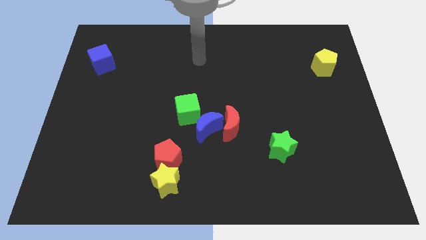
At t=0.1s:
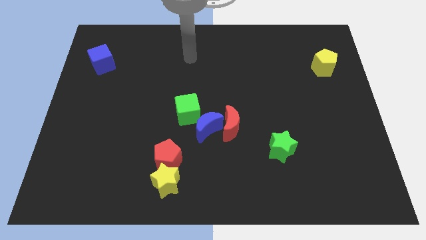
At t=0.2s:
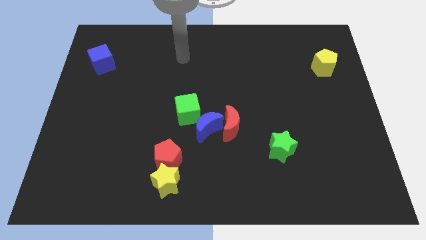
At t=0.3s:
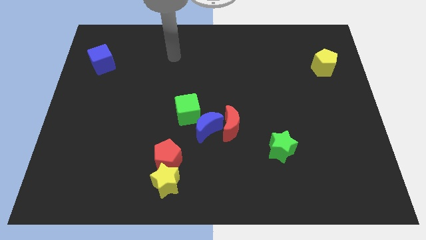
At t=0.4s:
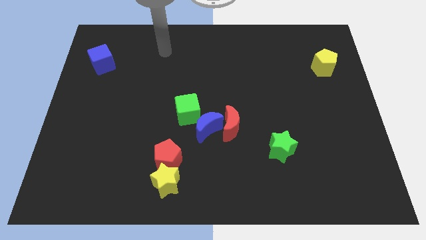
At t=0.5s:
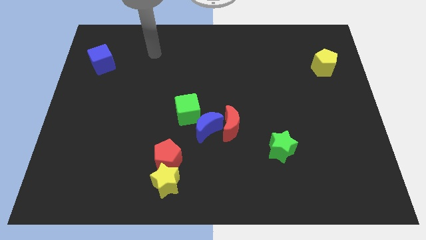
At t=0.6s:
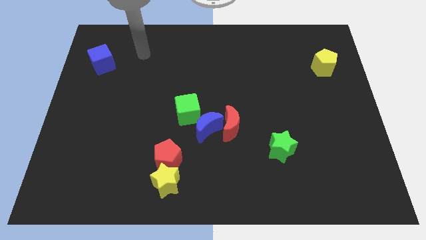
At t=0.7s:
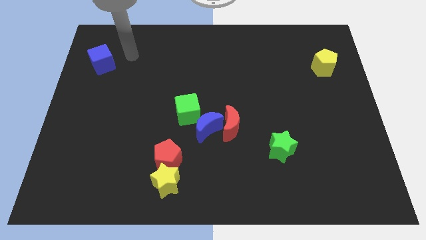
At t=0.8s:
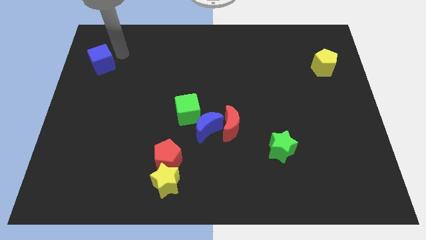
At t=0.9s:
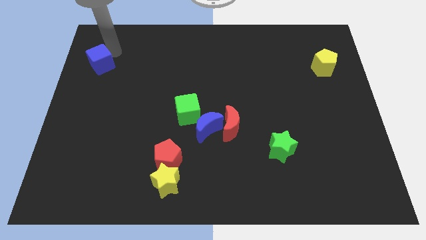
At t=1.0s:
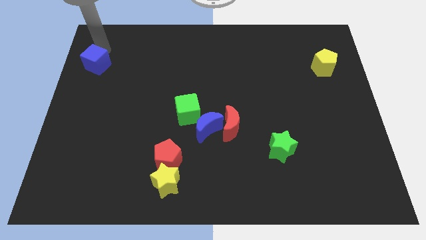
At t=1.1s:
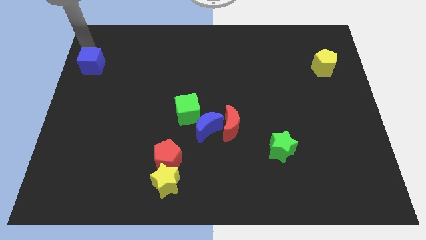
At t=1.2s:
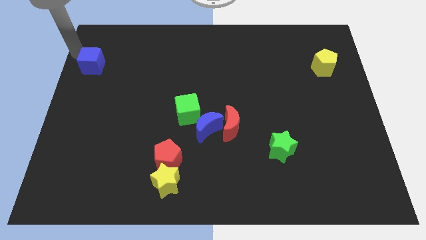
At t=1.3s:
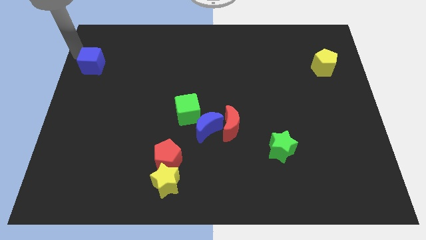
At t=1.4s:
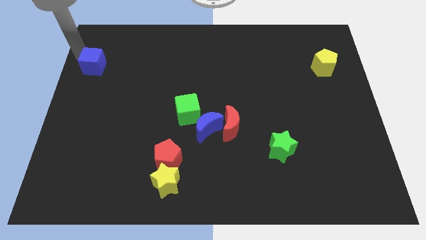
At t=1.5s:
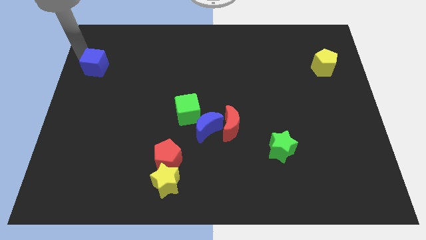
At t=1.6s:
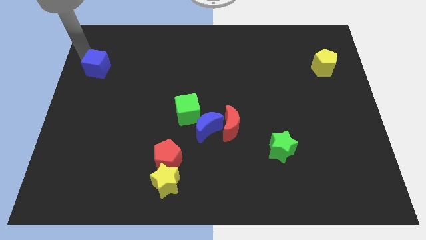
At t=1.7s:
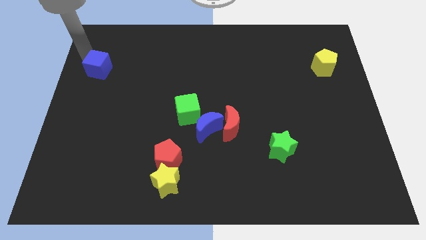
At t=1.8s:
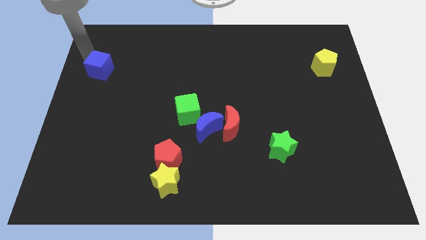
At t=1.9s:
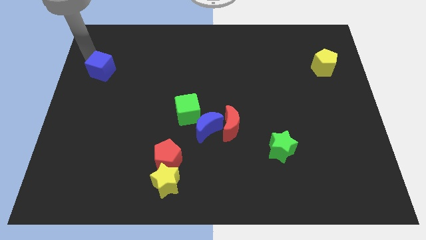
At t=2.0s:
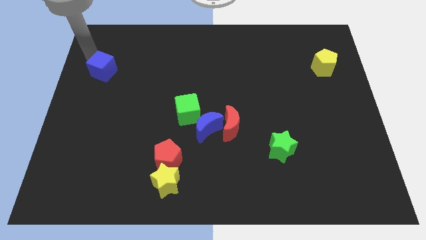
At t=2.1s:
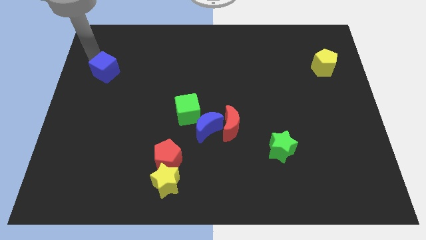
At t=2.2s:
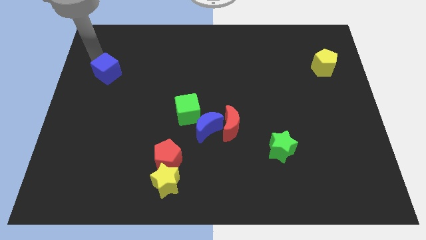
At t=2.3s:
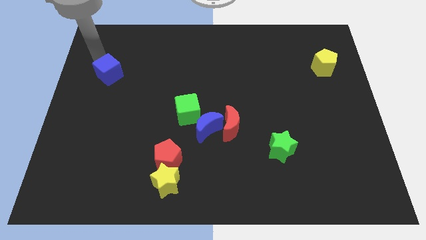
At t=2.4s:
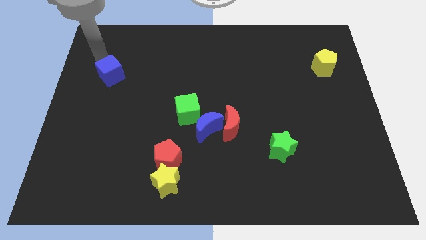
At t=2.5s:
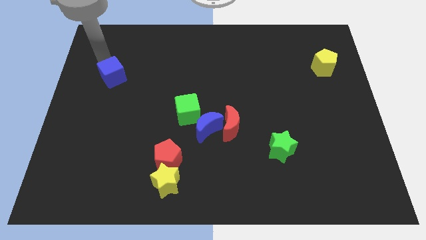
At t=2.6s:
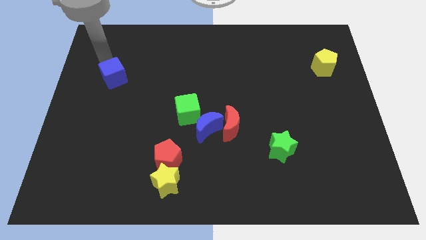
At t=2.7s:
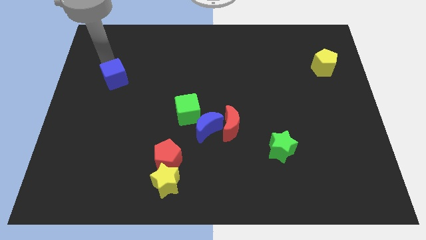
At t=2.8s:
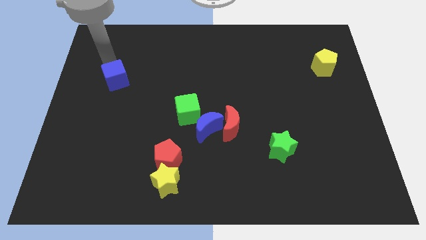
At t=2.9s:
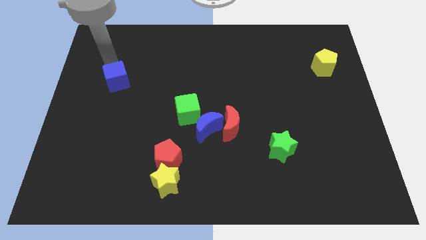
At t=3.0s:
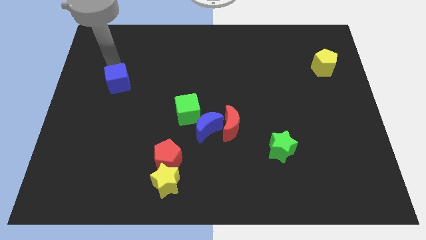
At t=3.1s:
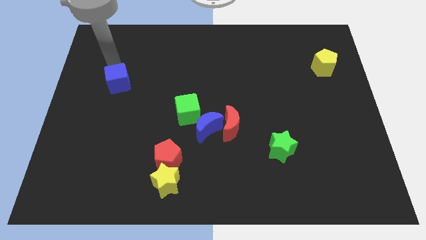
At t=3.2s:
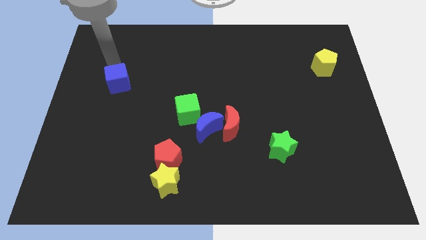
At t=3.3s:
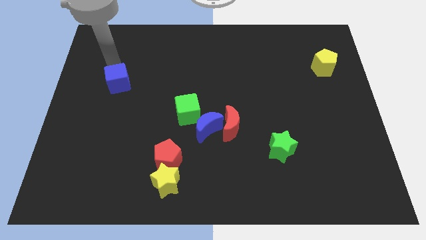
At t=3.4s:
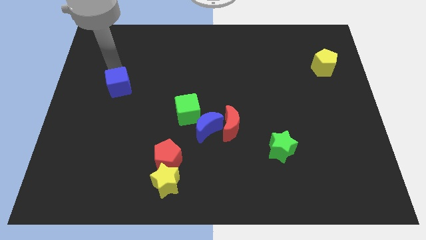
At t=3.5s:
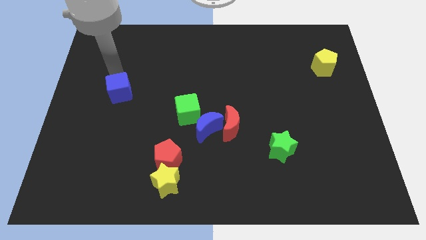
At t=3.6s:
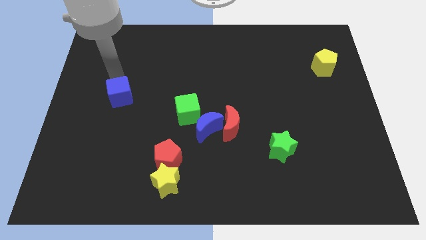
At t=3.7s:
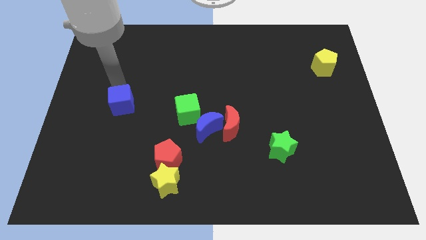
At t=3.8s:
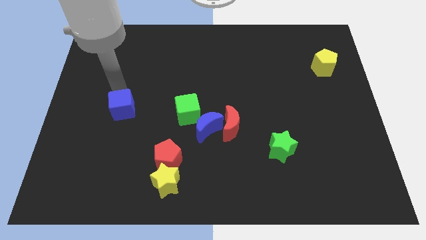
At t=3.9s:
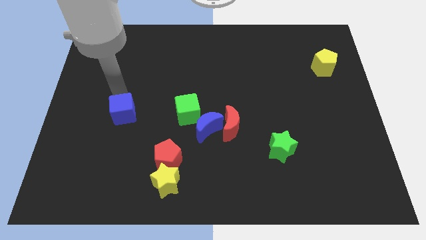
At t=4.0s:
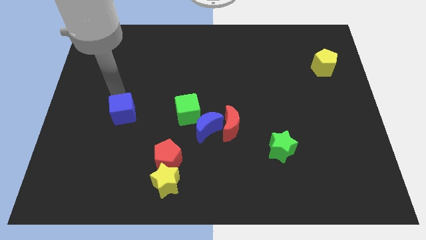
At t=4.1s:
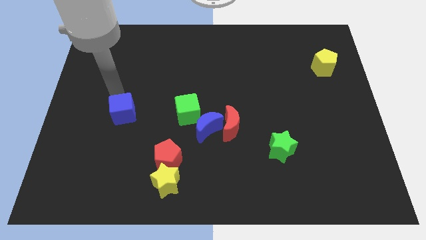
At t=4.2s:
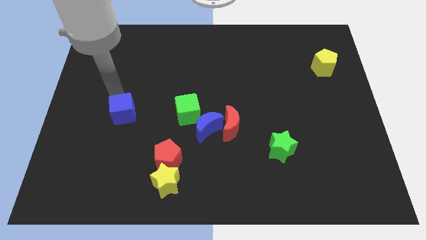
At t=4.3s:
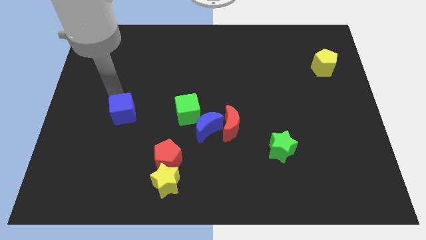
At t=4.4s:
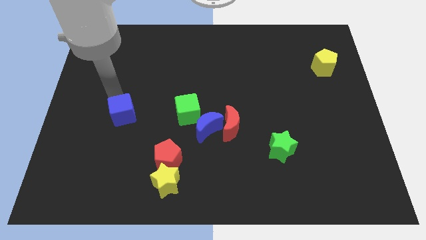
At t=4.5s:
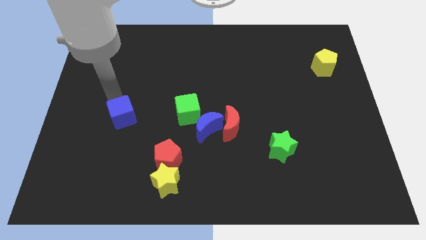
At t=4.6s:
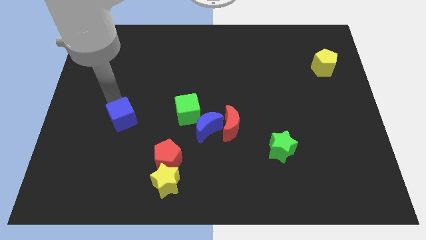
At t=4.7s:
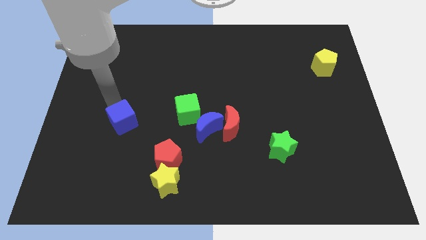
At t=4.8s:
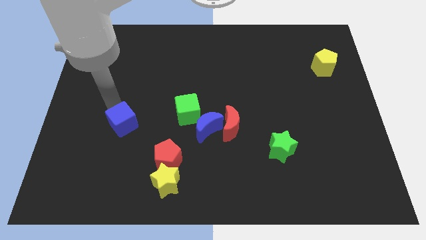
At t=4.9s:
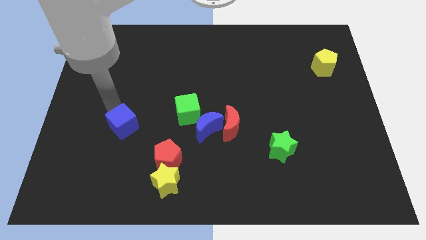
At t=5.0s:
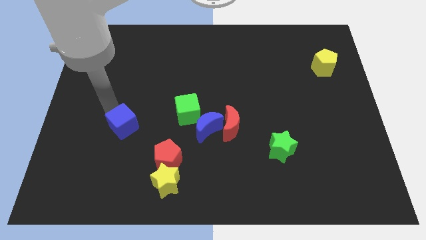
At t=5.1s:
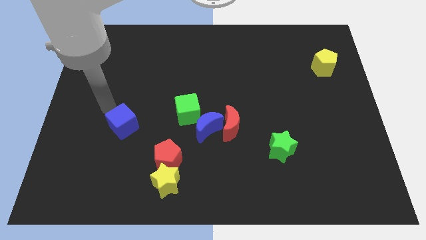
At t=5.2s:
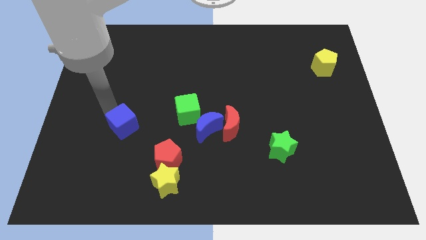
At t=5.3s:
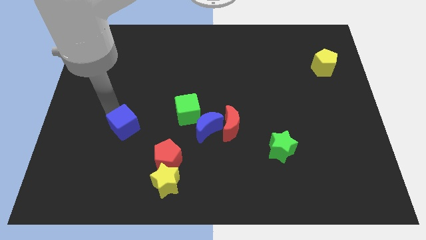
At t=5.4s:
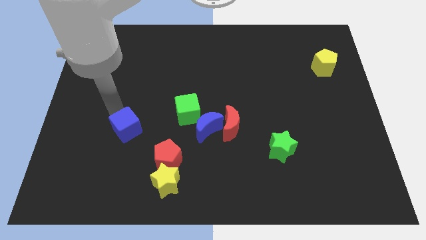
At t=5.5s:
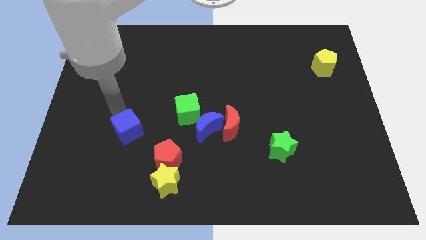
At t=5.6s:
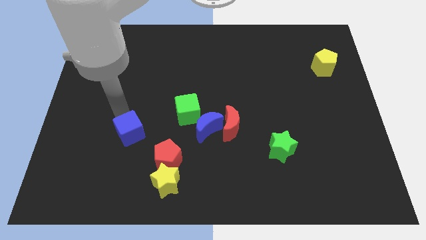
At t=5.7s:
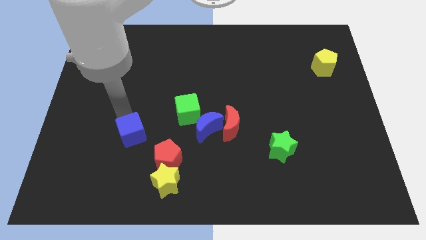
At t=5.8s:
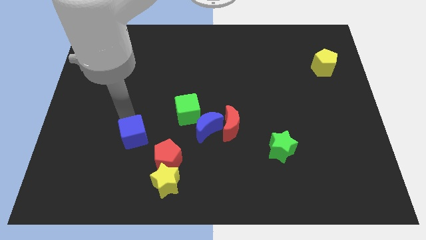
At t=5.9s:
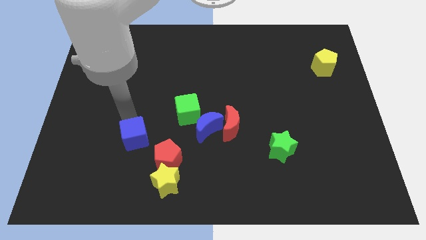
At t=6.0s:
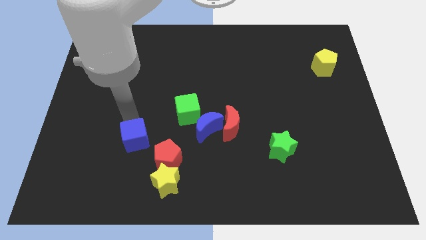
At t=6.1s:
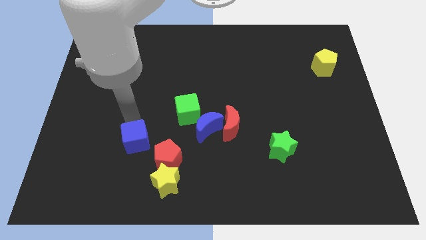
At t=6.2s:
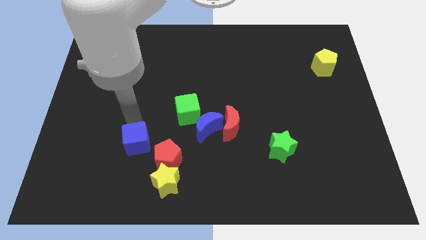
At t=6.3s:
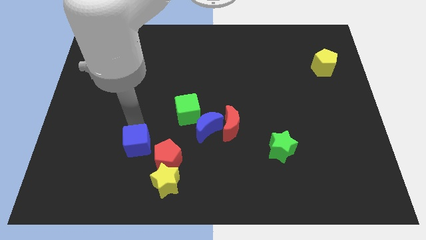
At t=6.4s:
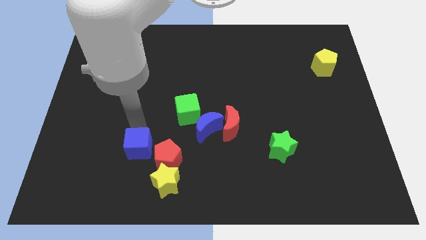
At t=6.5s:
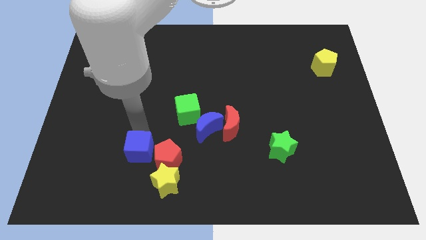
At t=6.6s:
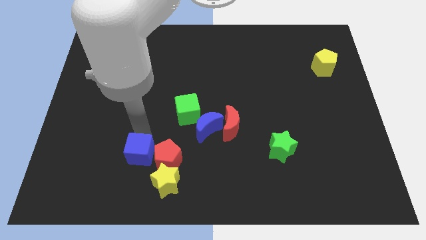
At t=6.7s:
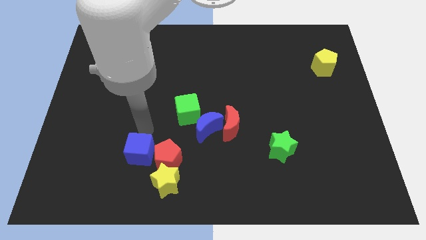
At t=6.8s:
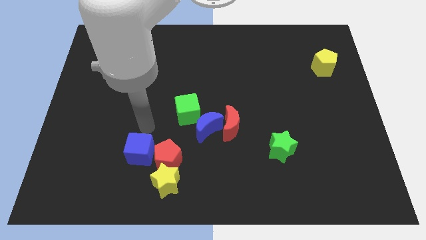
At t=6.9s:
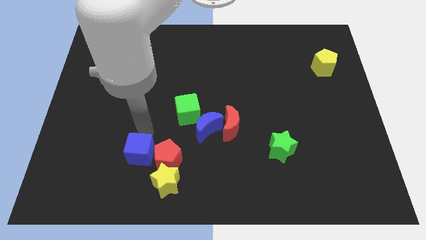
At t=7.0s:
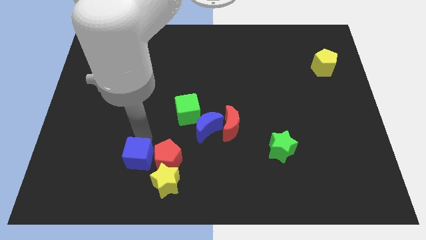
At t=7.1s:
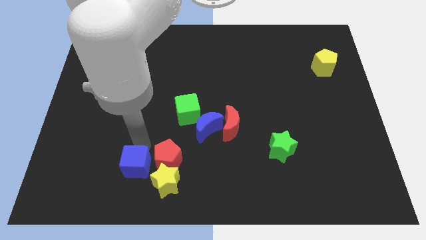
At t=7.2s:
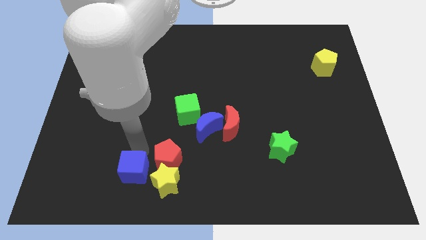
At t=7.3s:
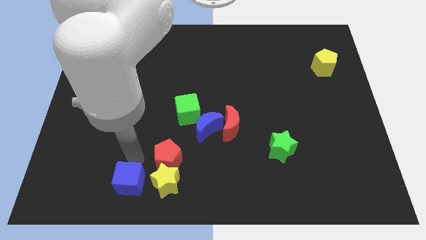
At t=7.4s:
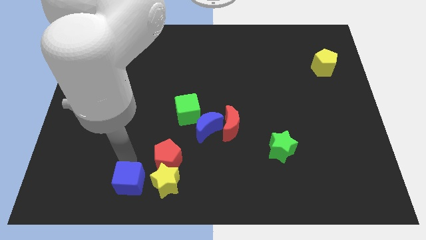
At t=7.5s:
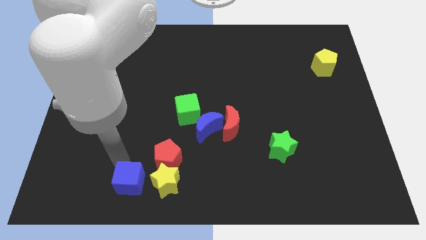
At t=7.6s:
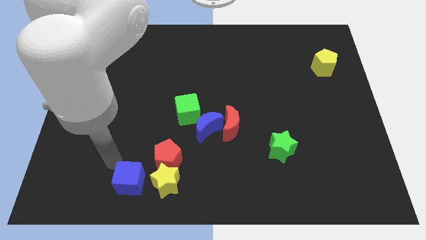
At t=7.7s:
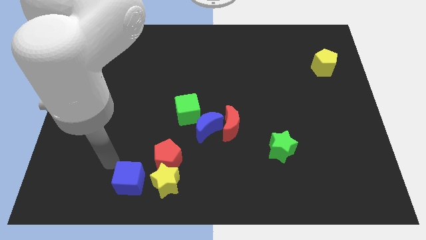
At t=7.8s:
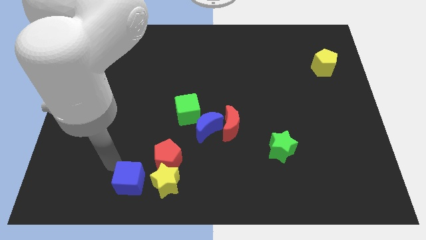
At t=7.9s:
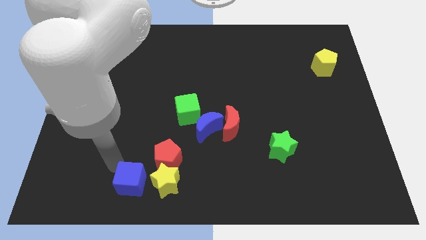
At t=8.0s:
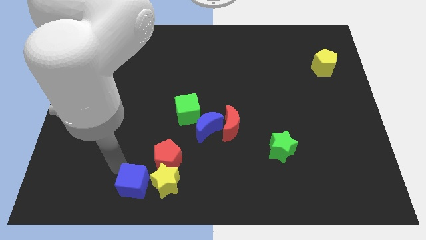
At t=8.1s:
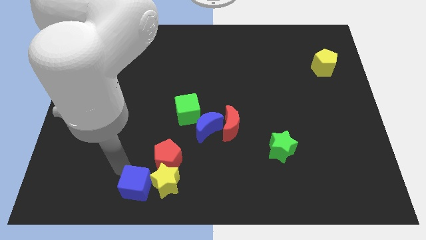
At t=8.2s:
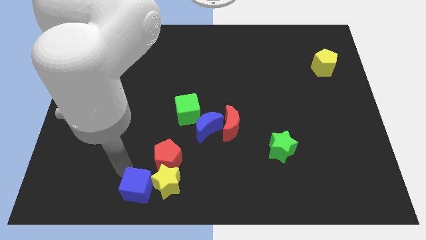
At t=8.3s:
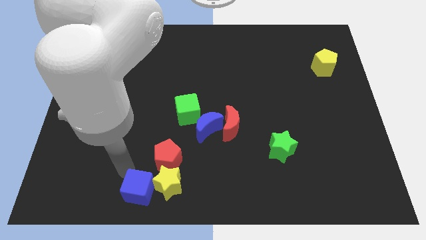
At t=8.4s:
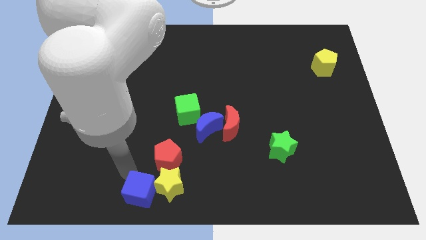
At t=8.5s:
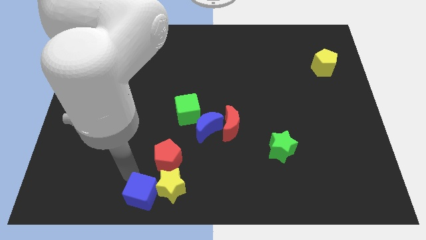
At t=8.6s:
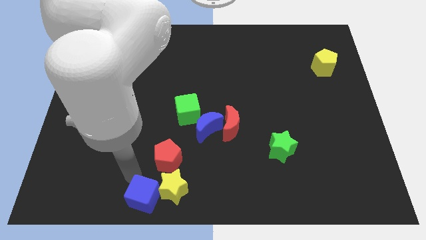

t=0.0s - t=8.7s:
move the blue cube to the bottom
